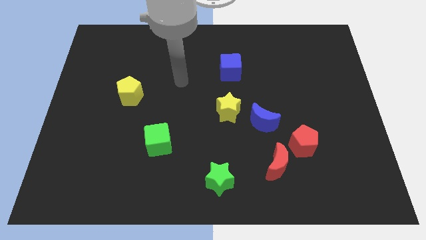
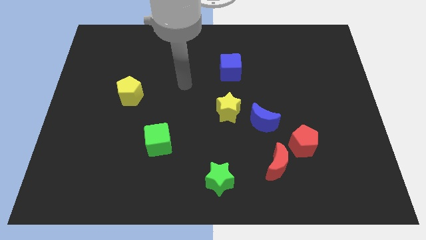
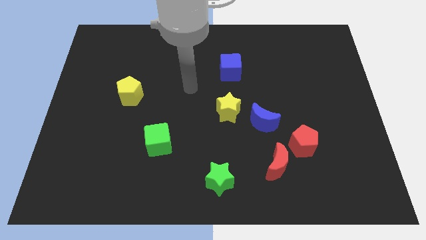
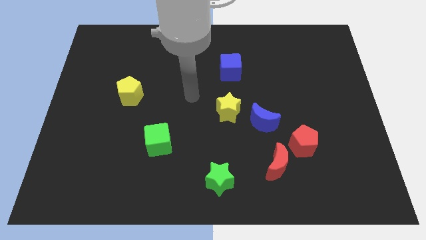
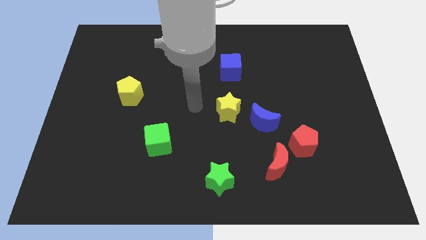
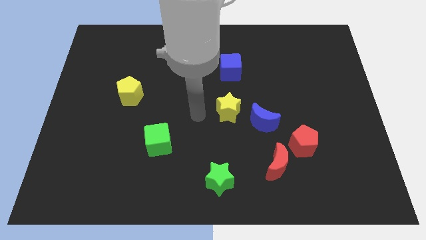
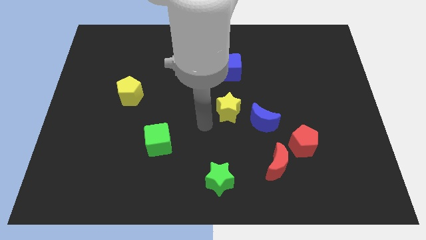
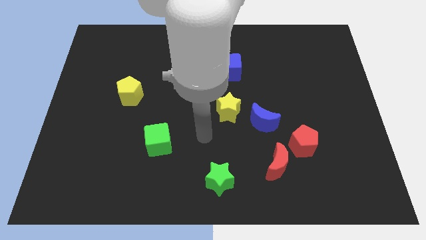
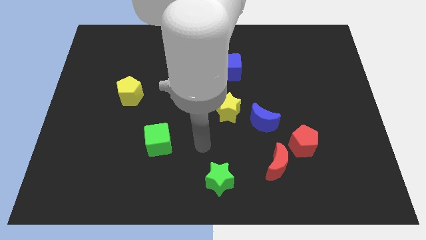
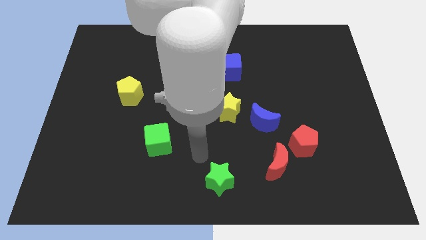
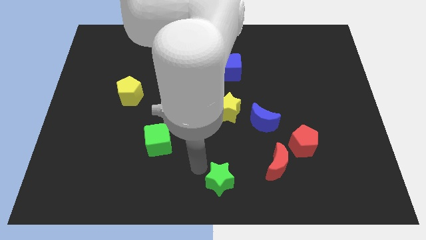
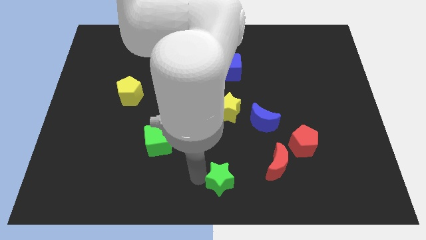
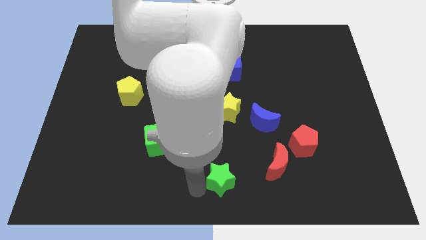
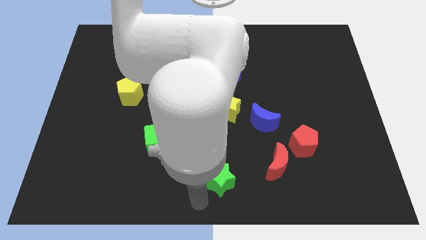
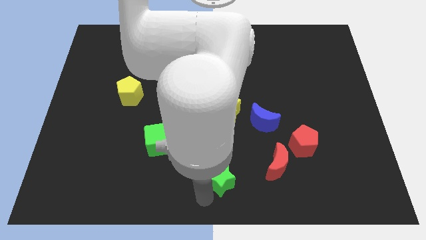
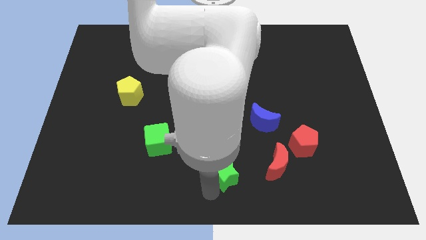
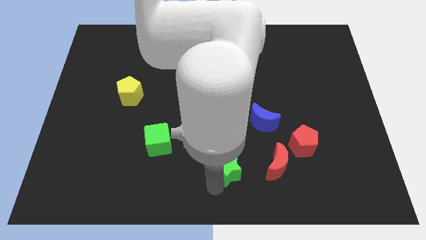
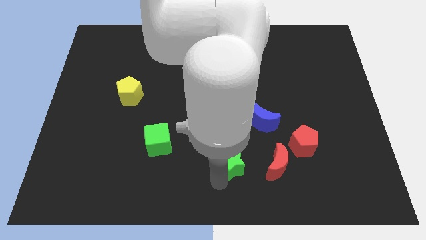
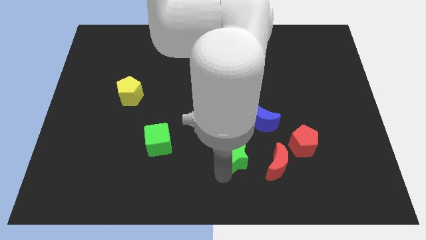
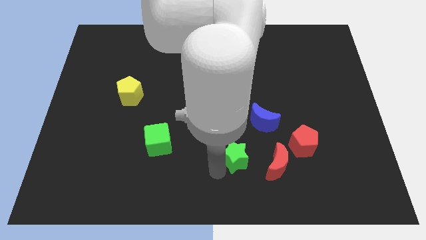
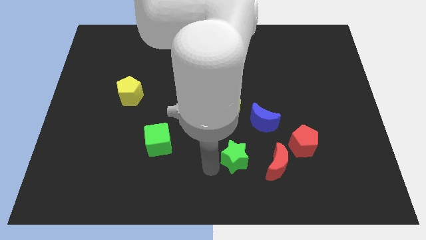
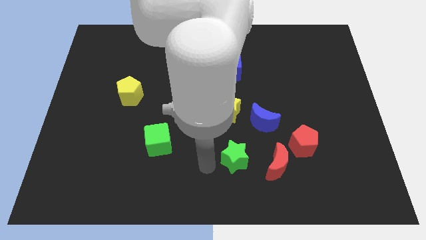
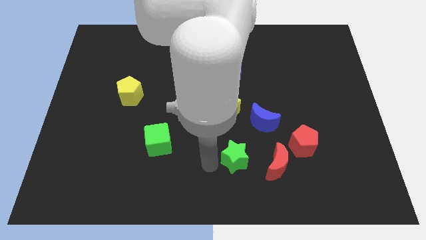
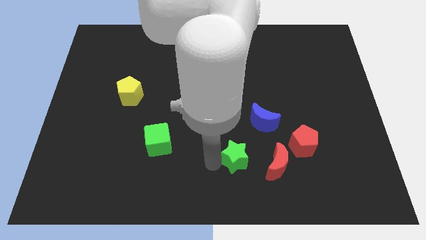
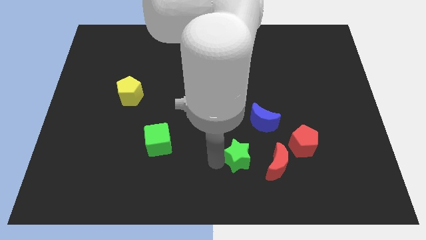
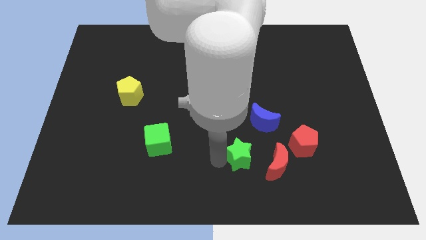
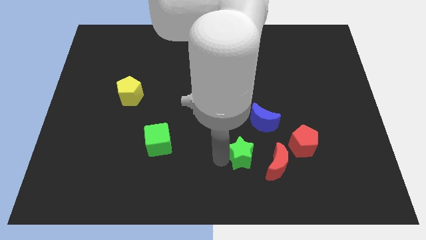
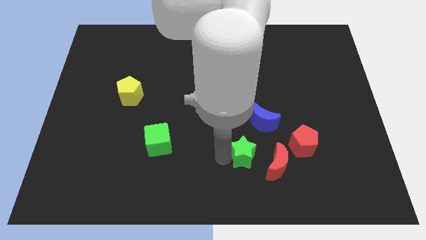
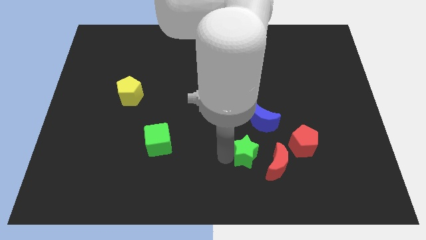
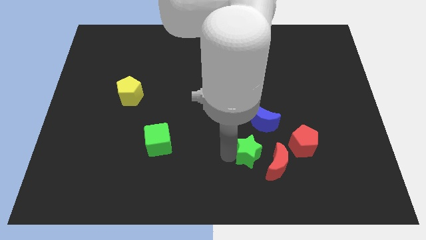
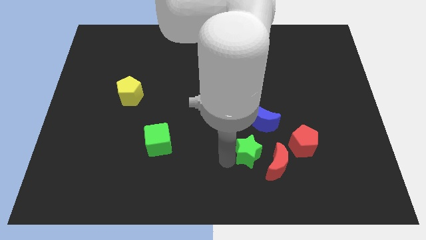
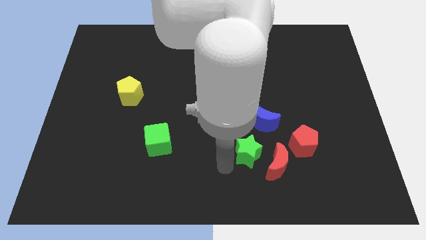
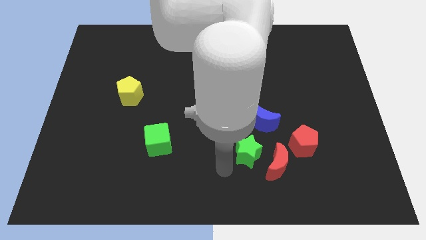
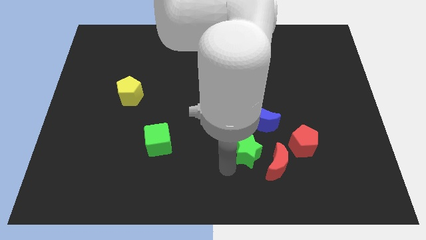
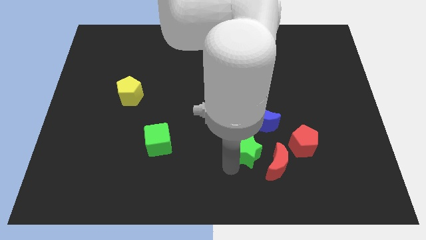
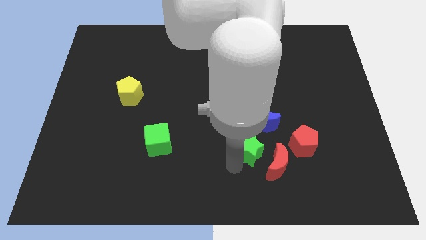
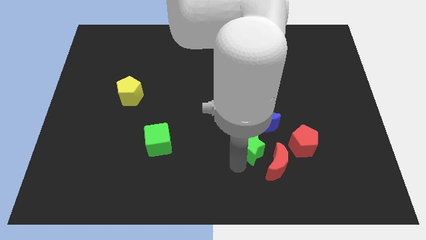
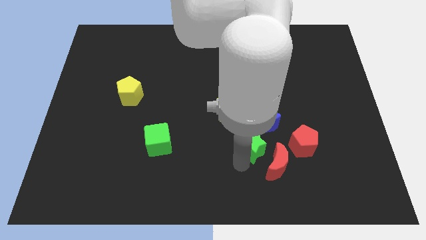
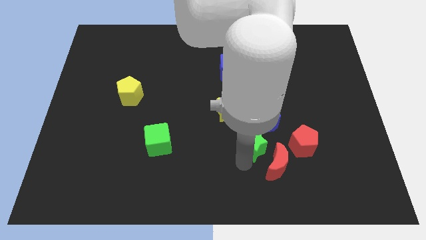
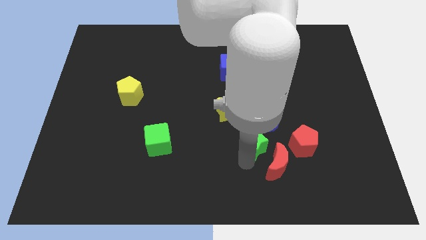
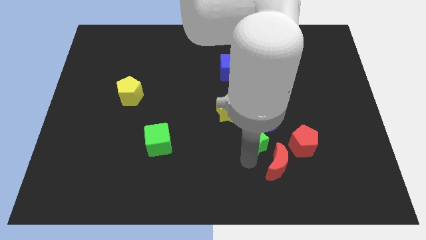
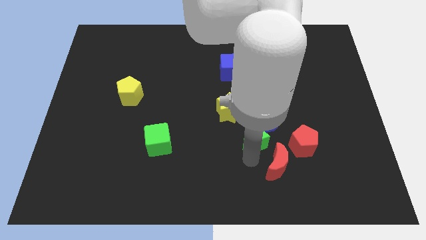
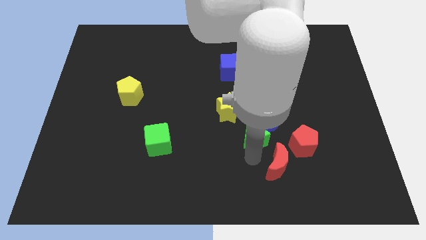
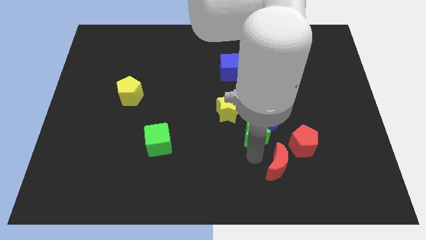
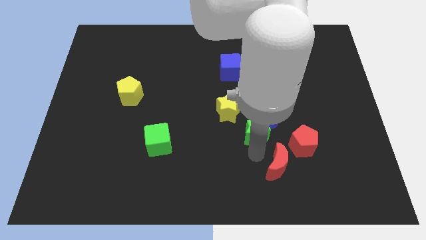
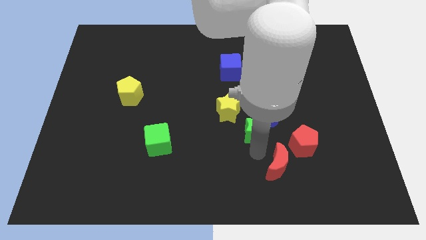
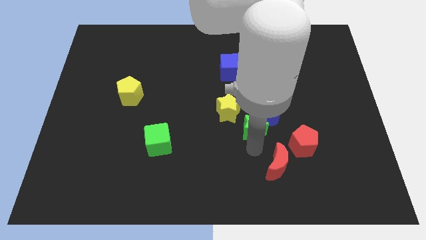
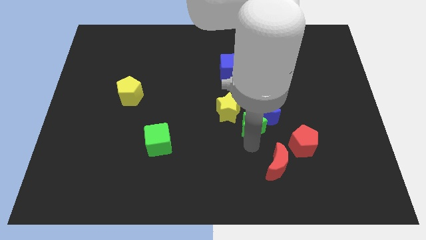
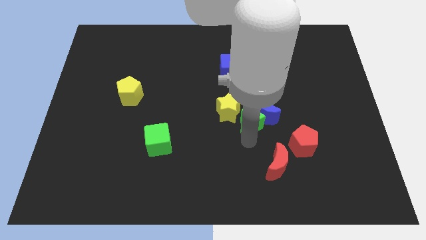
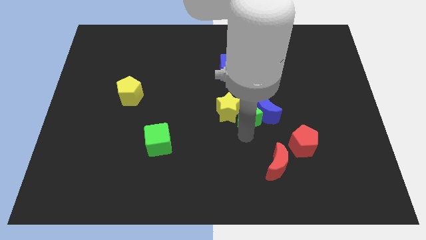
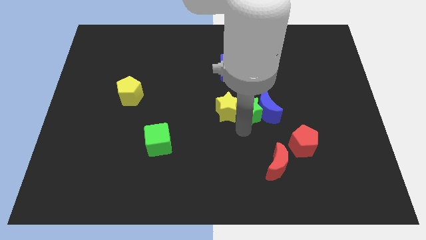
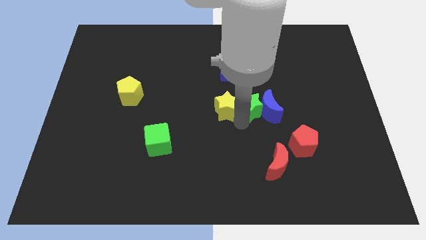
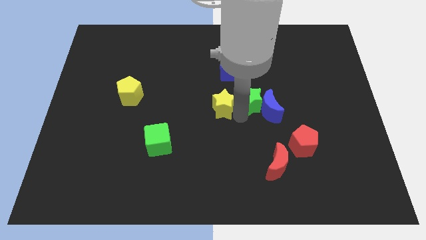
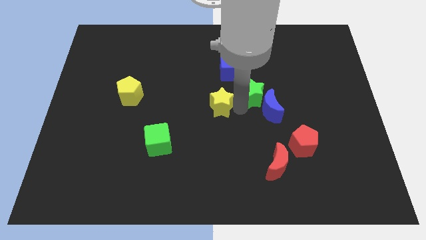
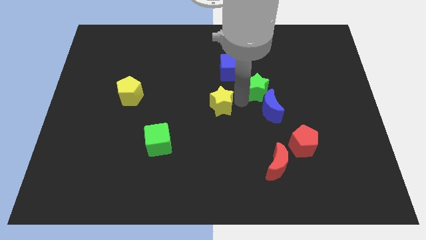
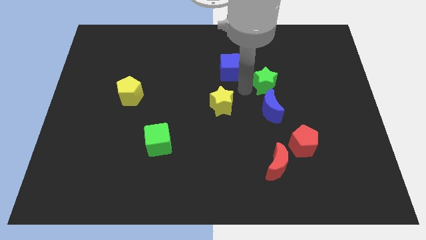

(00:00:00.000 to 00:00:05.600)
move the green star diagonally upwards and right

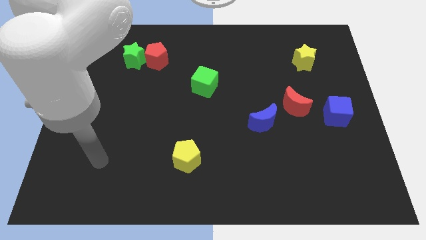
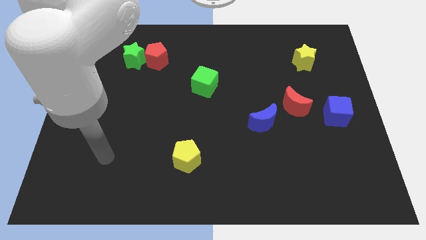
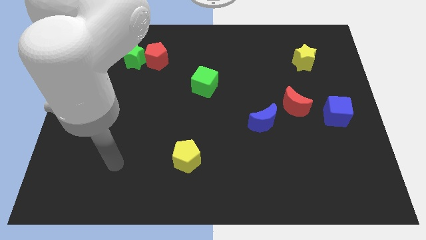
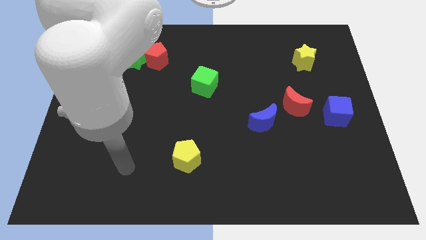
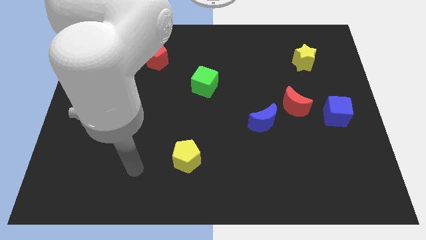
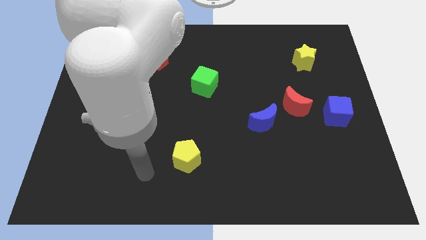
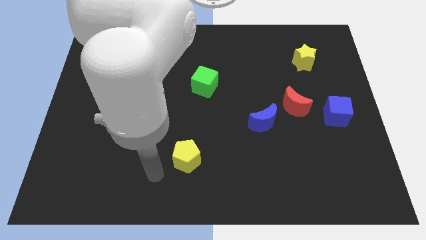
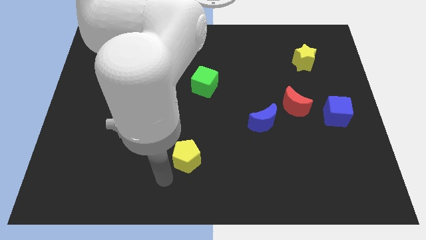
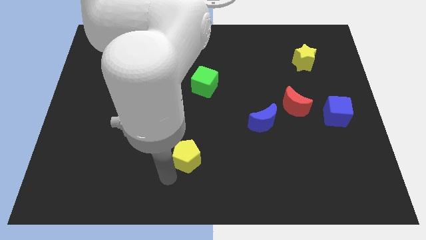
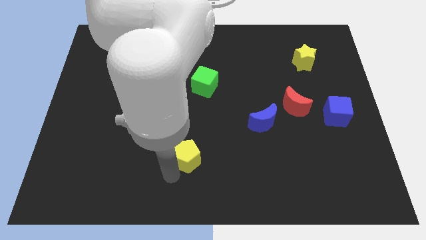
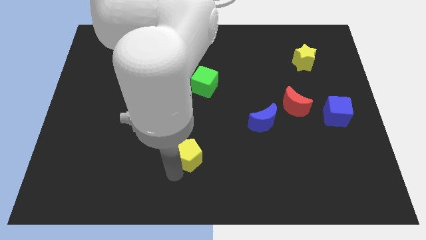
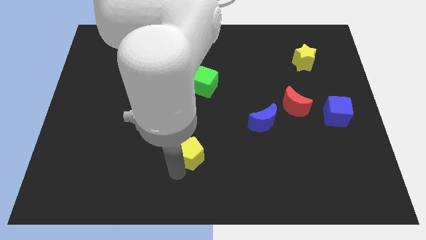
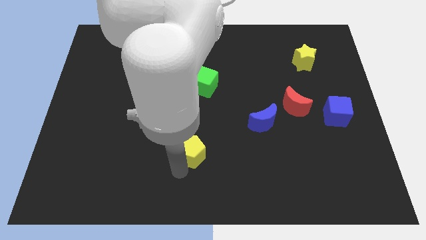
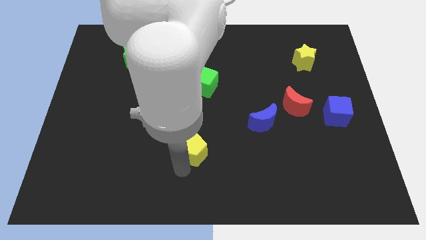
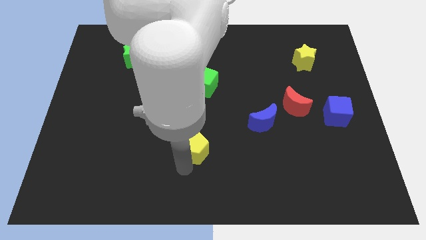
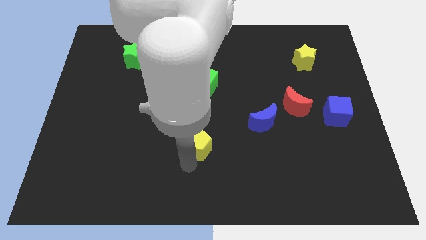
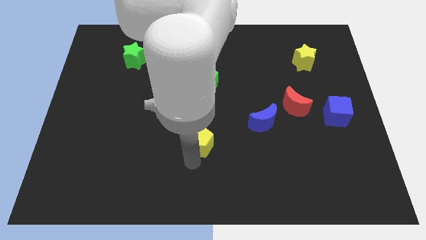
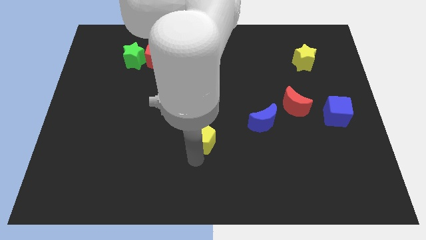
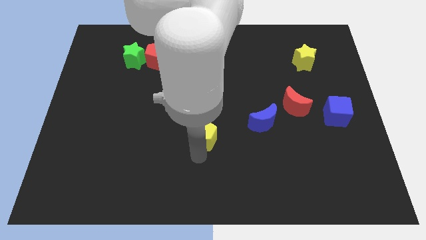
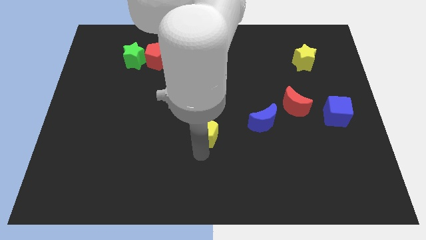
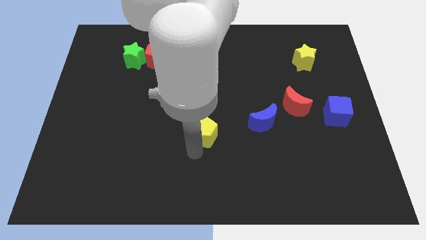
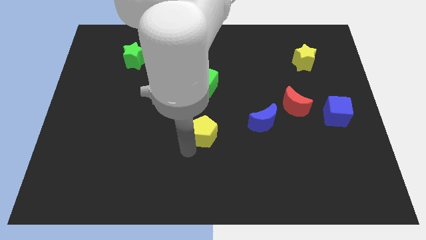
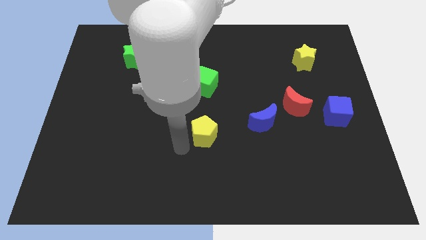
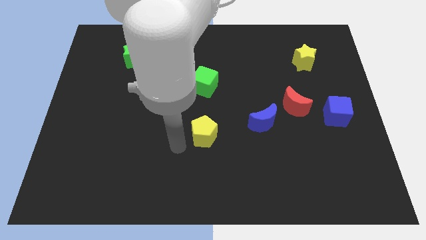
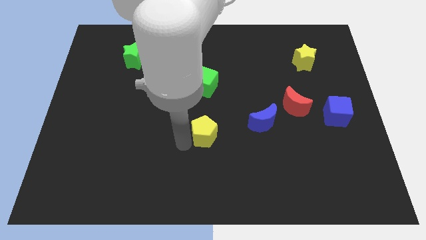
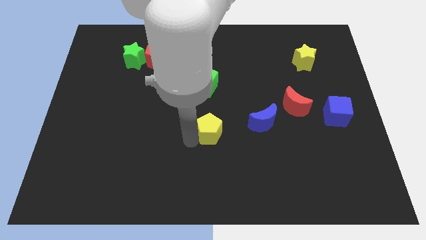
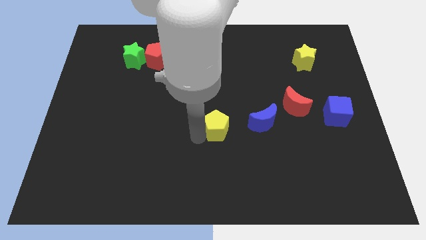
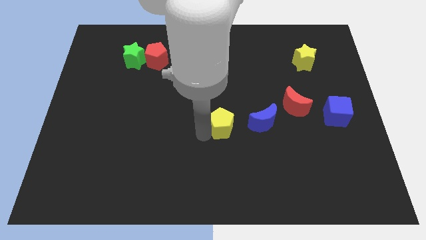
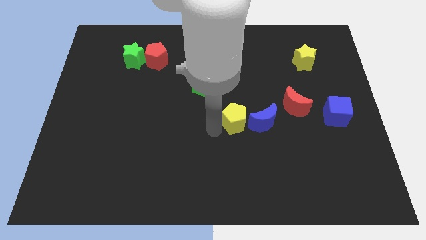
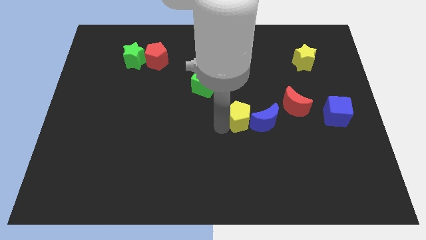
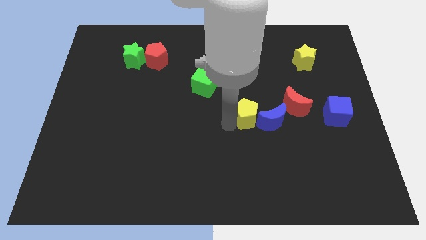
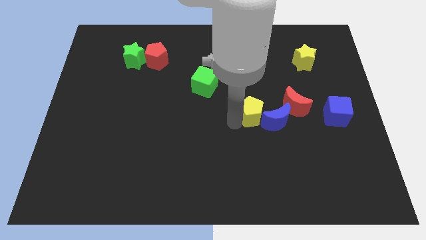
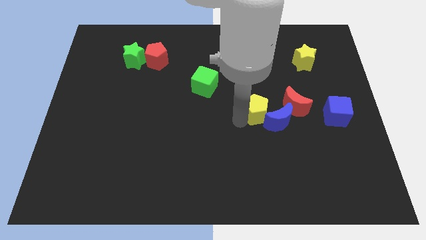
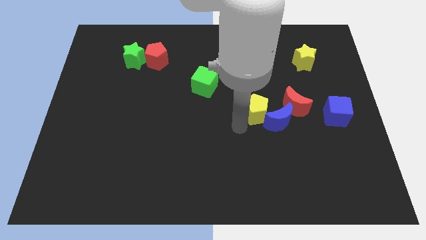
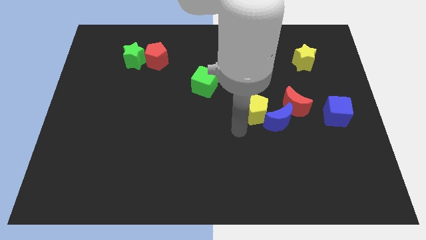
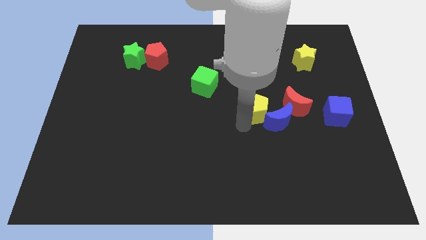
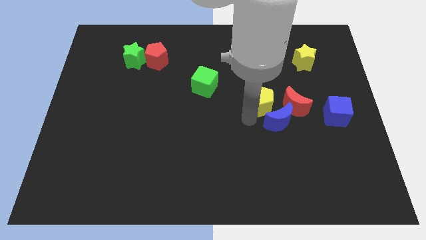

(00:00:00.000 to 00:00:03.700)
move the yellow pentagon diagonally upwards and to the right
